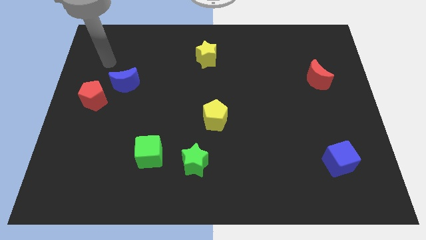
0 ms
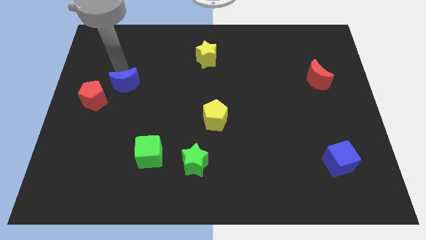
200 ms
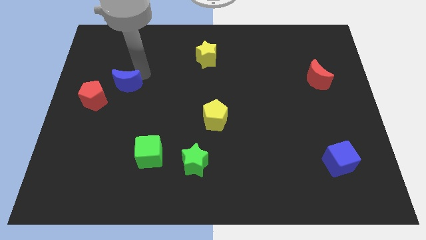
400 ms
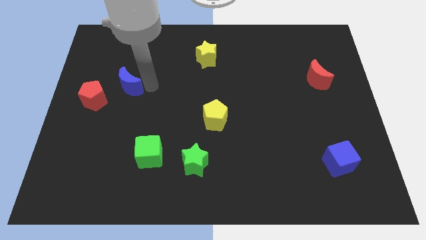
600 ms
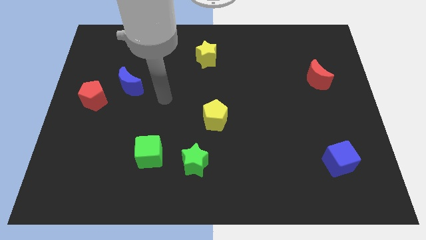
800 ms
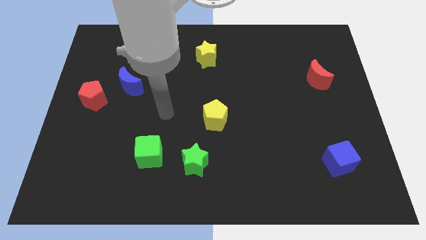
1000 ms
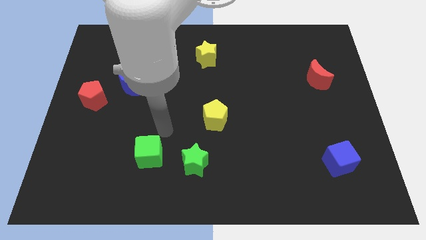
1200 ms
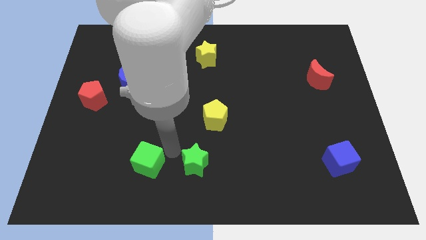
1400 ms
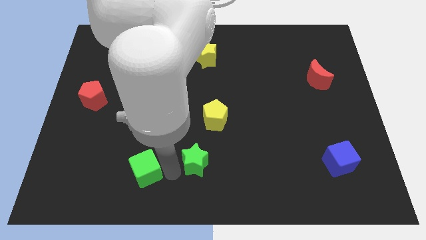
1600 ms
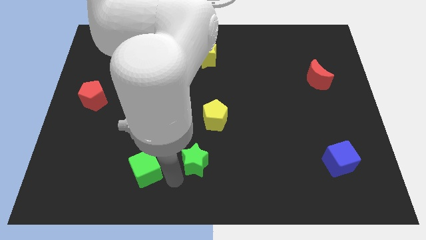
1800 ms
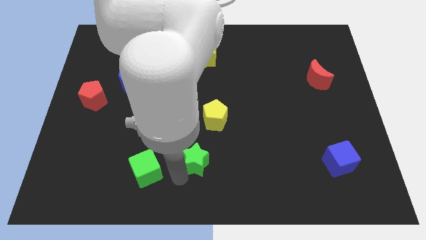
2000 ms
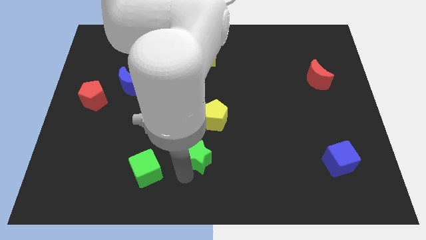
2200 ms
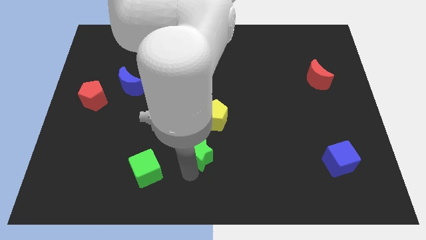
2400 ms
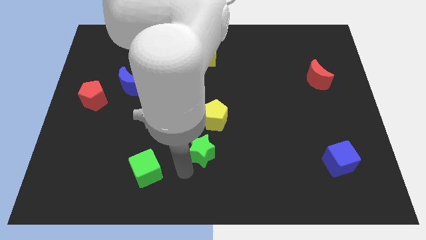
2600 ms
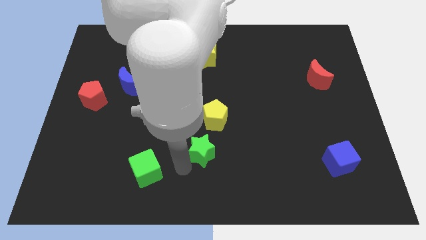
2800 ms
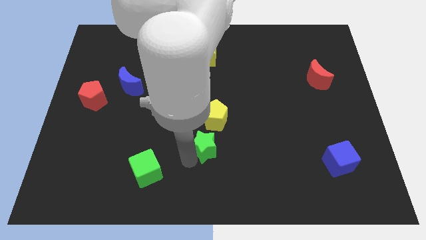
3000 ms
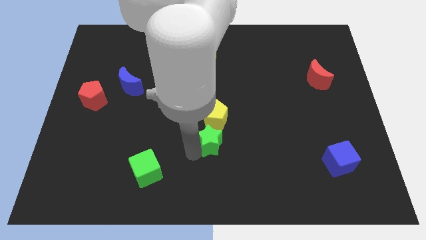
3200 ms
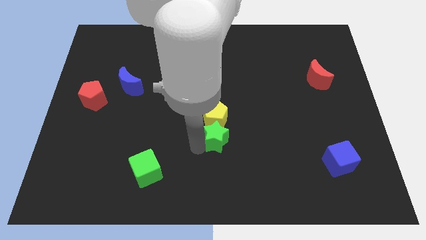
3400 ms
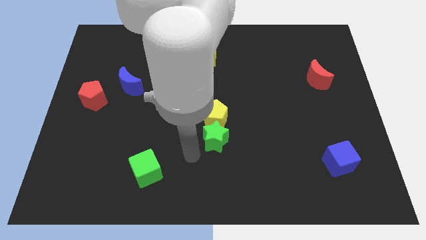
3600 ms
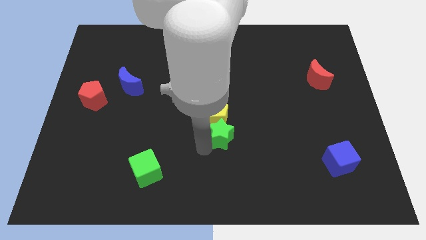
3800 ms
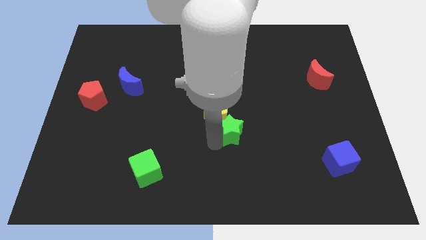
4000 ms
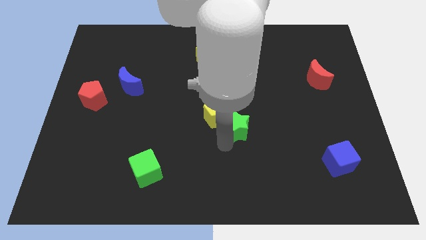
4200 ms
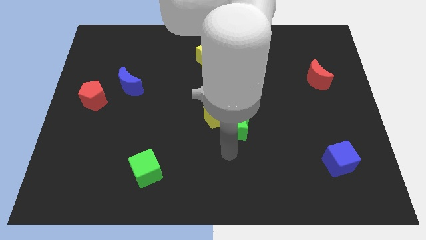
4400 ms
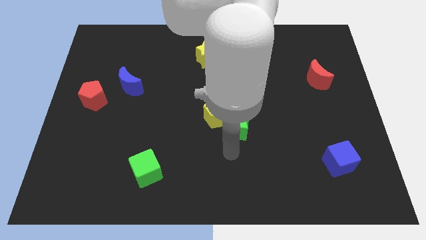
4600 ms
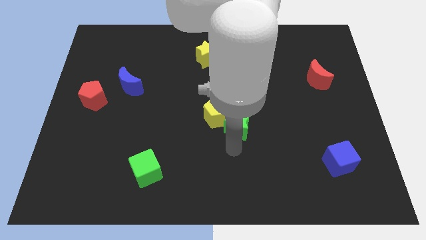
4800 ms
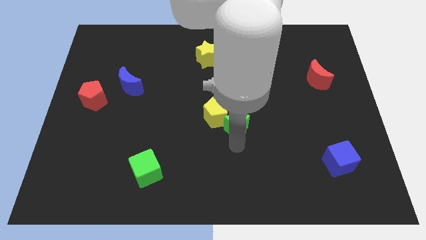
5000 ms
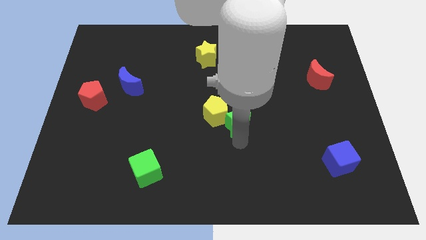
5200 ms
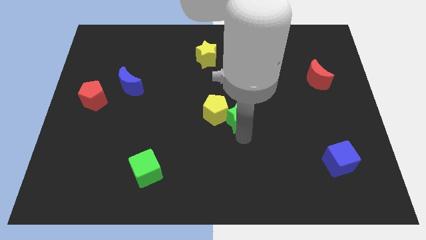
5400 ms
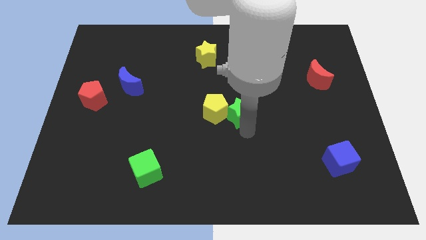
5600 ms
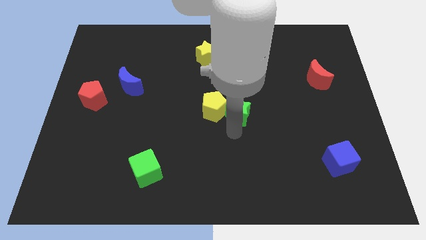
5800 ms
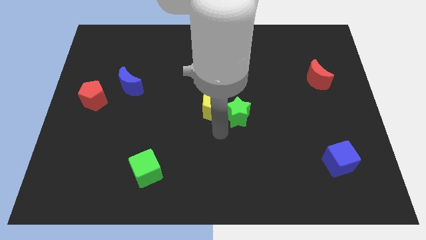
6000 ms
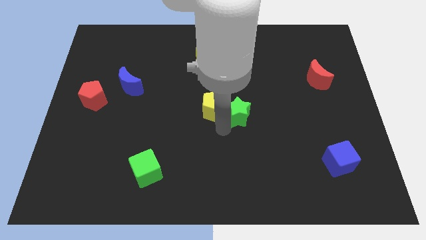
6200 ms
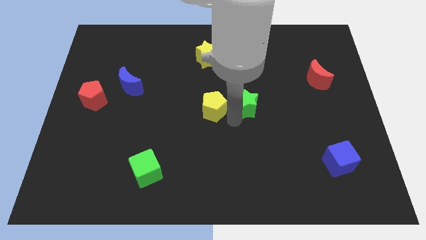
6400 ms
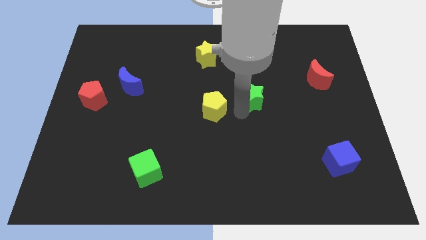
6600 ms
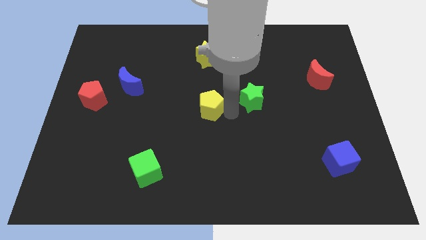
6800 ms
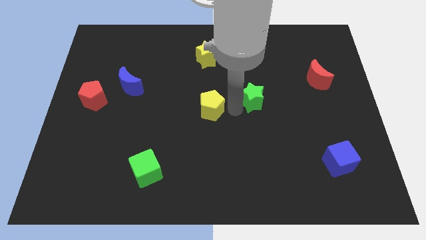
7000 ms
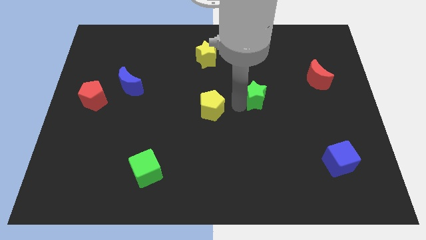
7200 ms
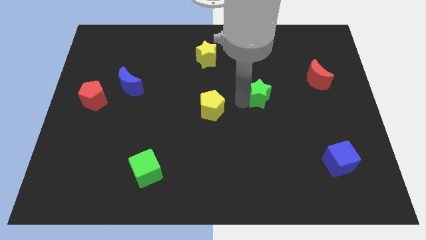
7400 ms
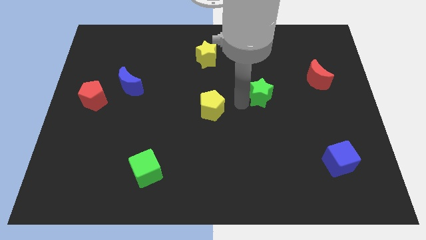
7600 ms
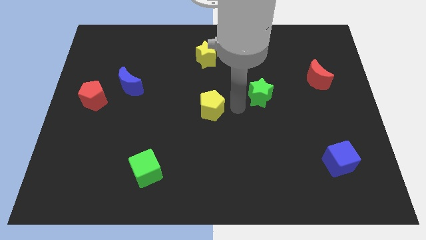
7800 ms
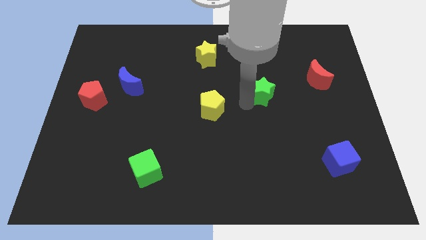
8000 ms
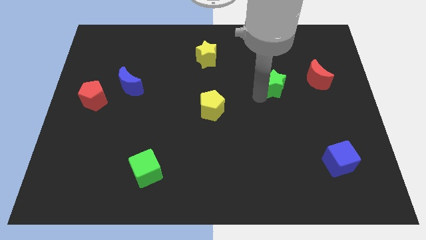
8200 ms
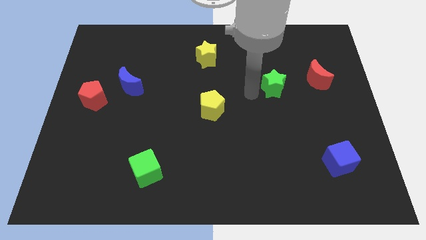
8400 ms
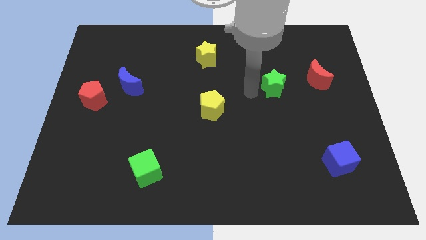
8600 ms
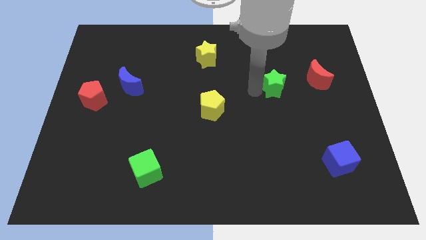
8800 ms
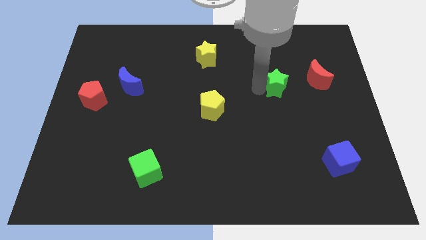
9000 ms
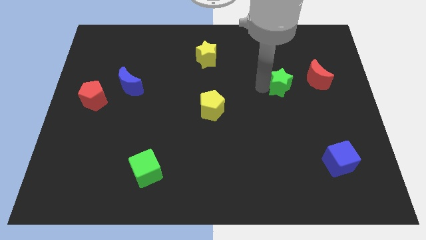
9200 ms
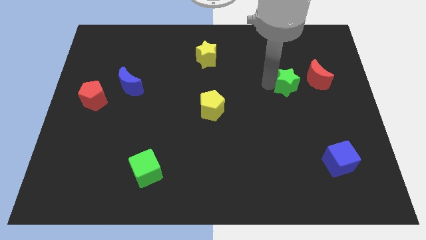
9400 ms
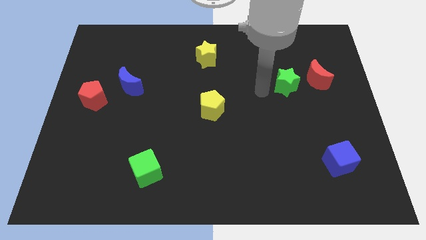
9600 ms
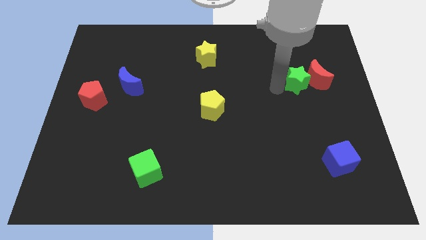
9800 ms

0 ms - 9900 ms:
push the green star towards the red moon

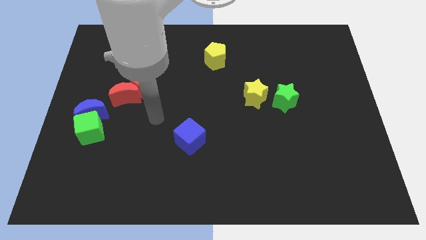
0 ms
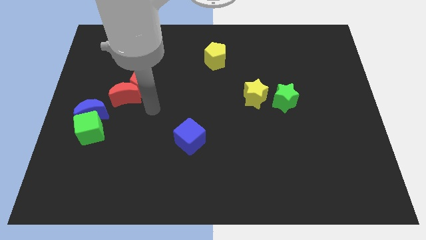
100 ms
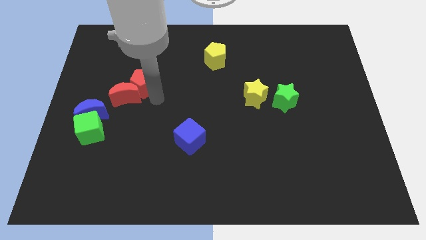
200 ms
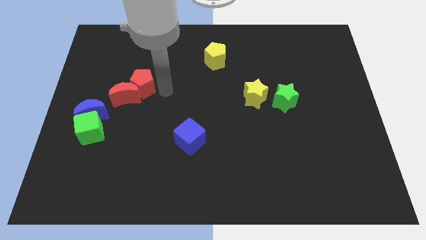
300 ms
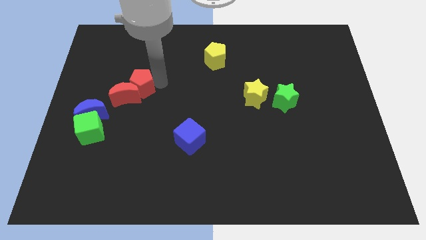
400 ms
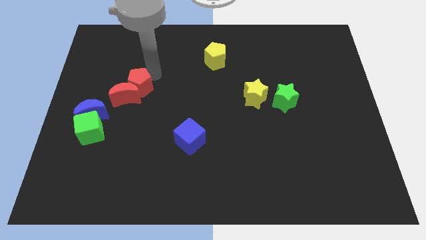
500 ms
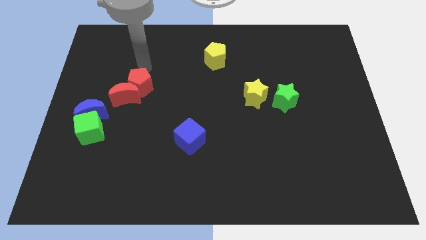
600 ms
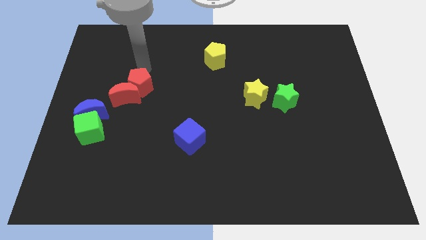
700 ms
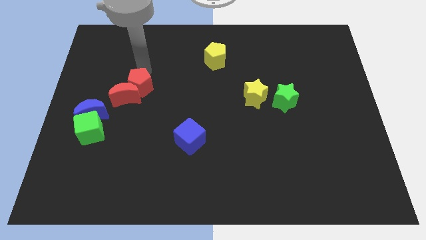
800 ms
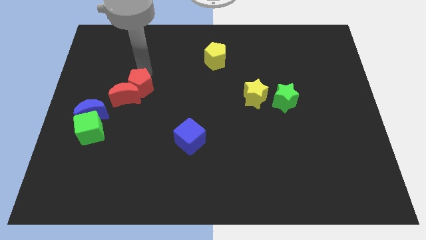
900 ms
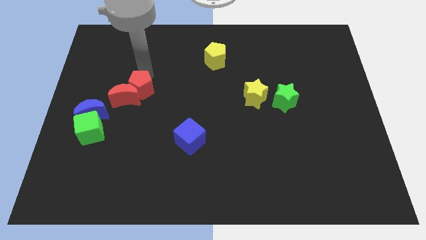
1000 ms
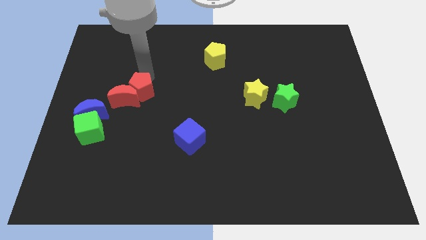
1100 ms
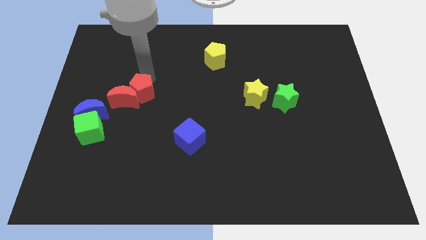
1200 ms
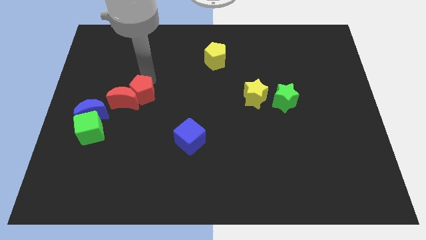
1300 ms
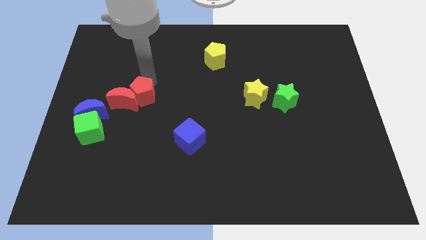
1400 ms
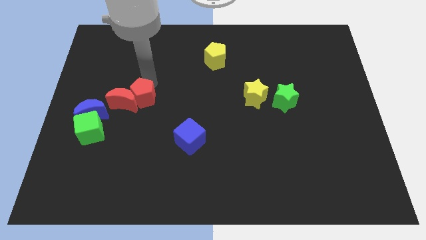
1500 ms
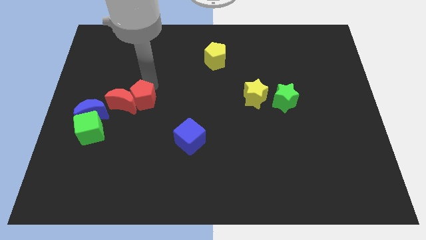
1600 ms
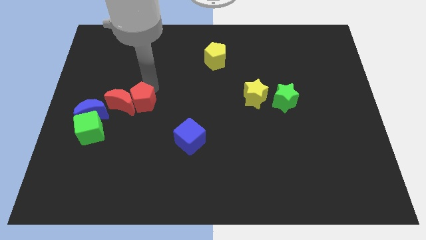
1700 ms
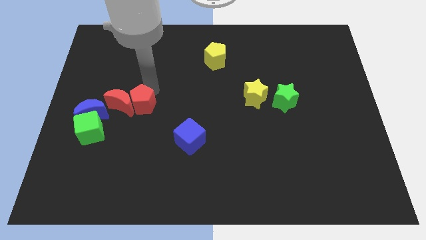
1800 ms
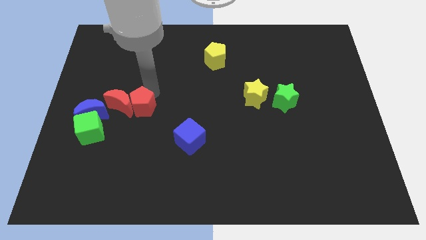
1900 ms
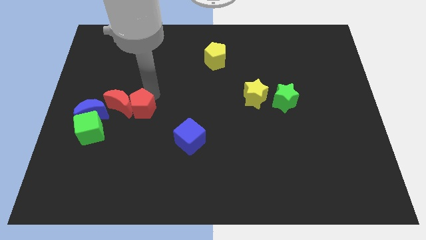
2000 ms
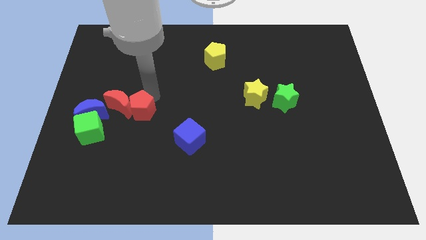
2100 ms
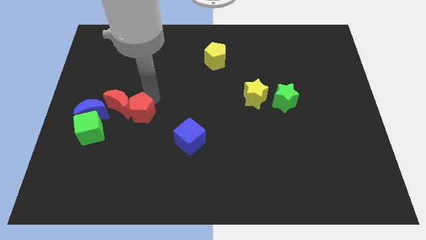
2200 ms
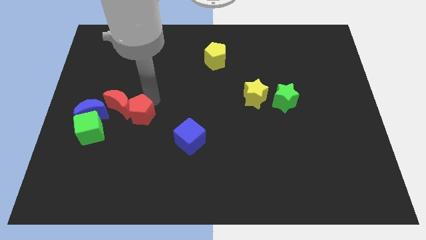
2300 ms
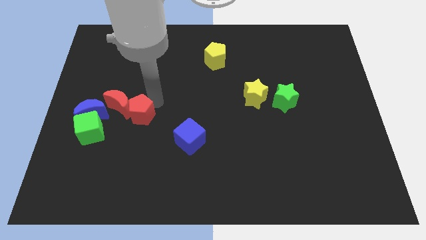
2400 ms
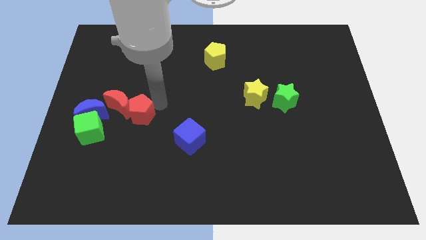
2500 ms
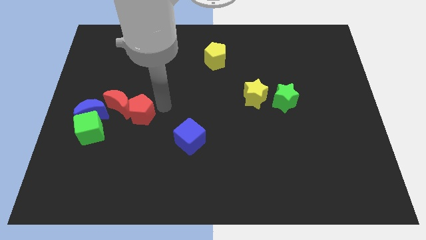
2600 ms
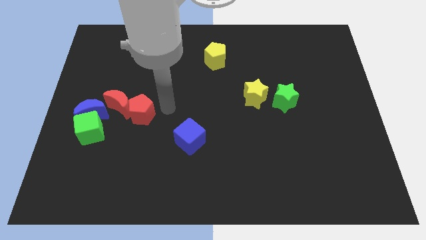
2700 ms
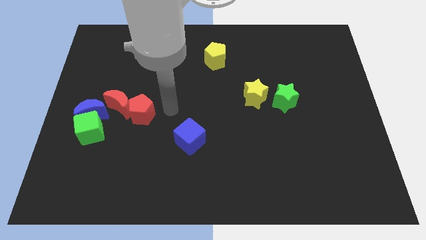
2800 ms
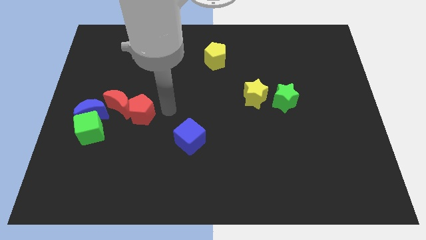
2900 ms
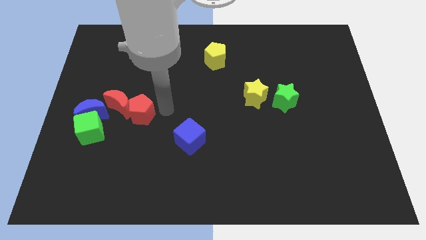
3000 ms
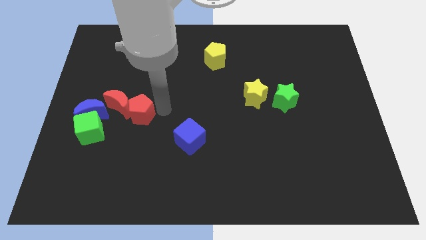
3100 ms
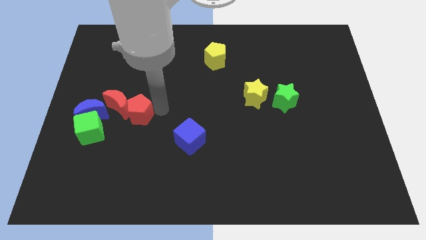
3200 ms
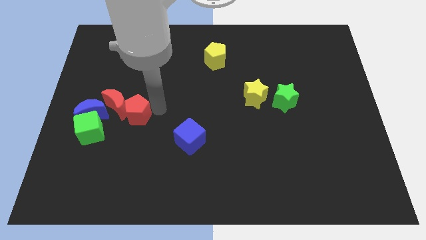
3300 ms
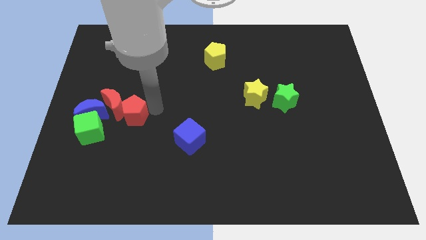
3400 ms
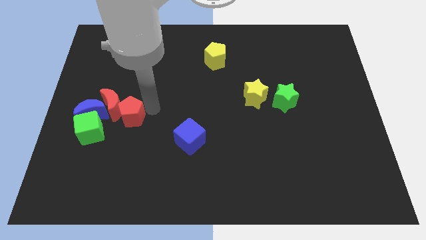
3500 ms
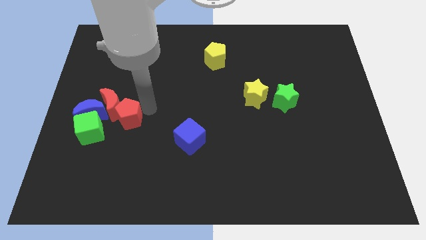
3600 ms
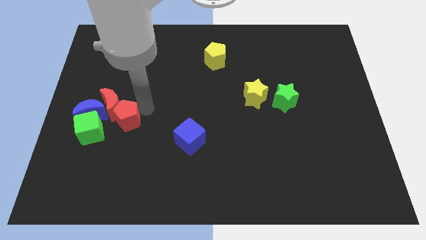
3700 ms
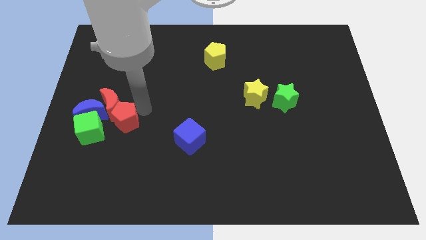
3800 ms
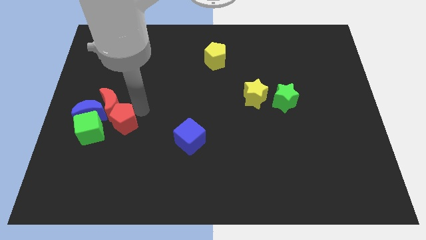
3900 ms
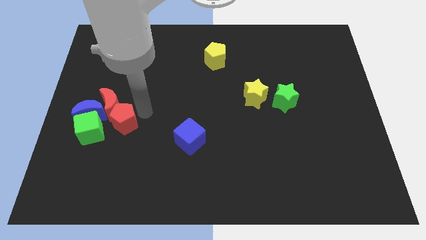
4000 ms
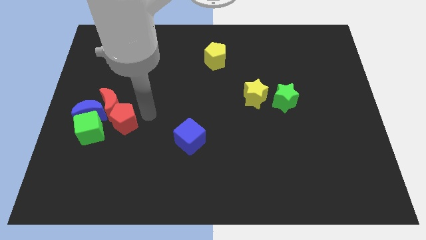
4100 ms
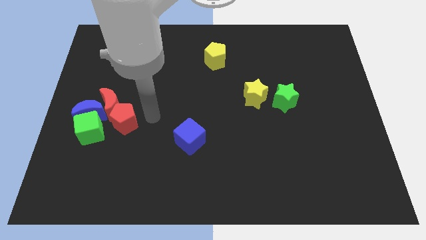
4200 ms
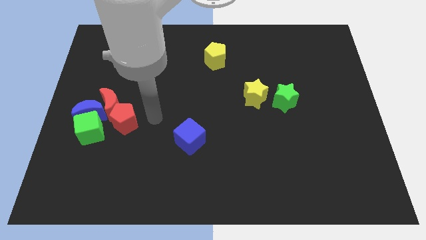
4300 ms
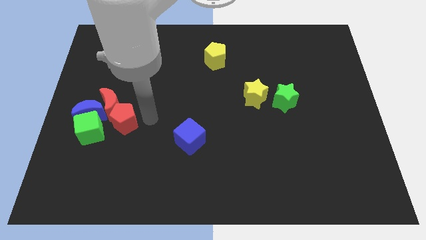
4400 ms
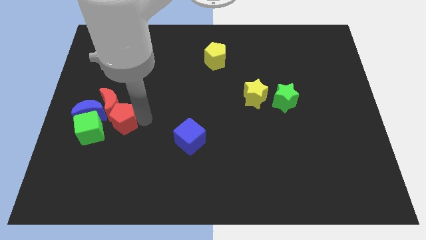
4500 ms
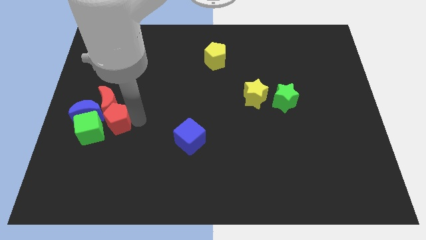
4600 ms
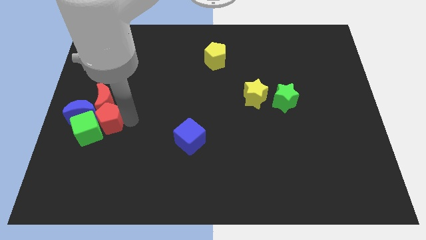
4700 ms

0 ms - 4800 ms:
move the red pentagon next to the green cube
